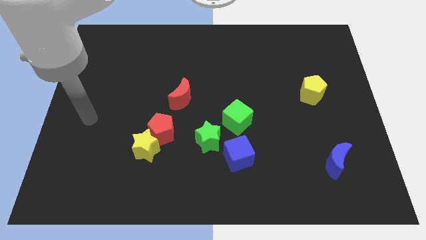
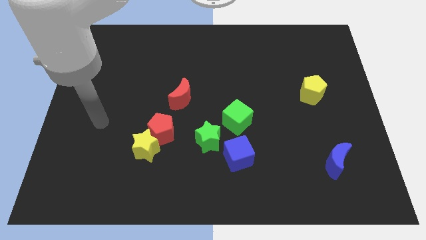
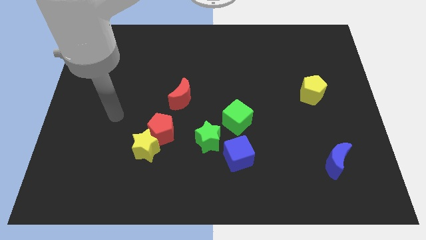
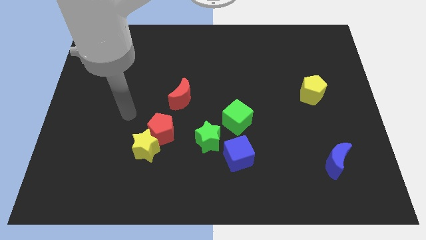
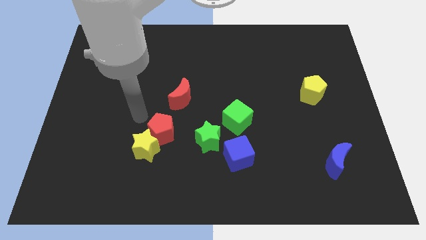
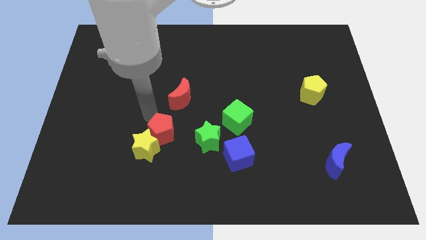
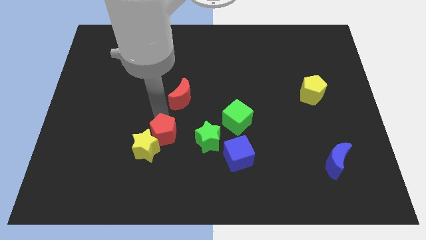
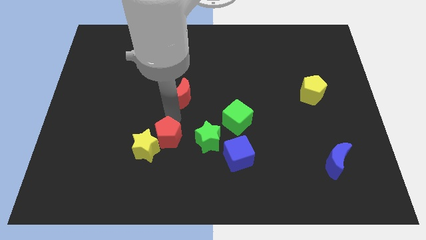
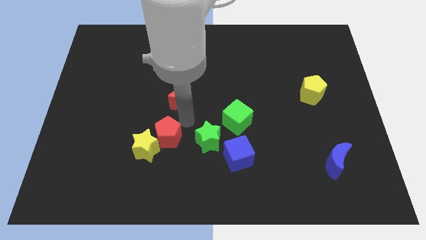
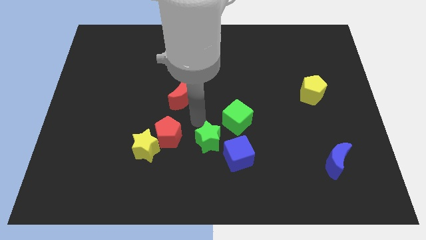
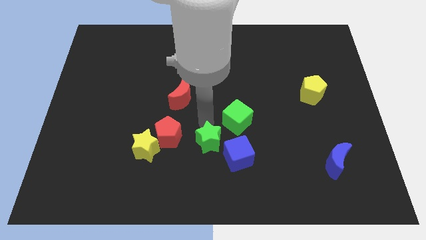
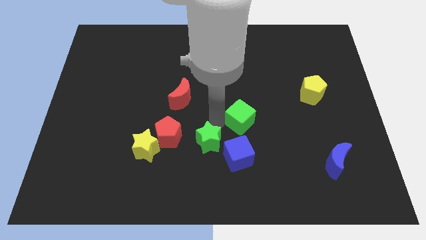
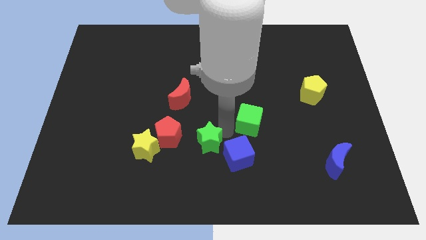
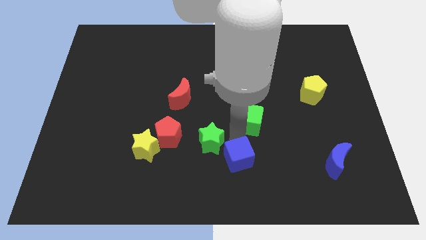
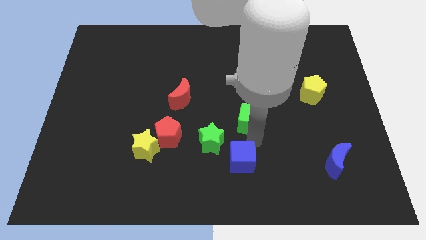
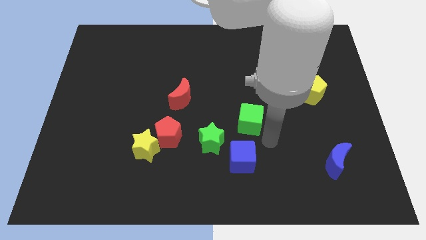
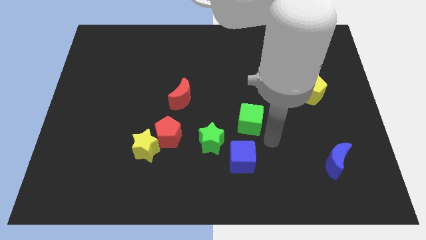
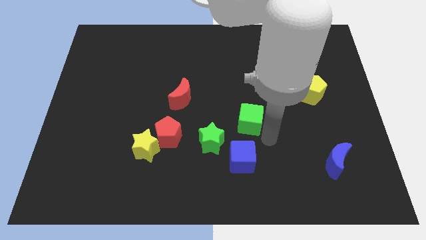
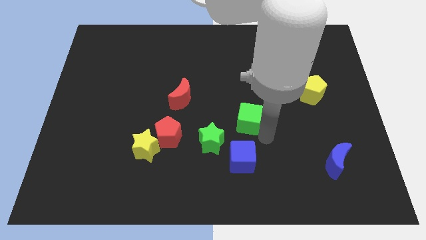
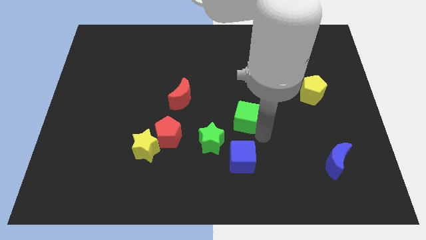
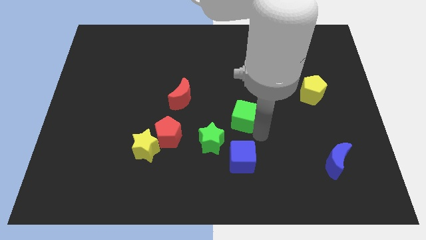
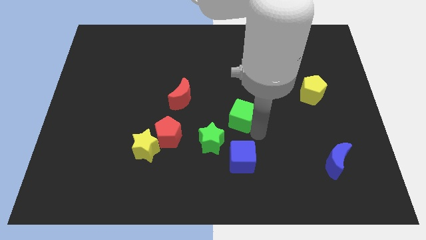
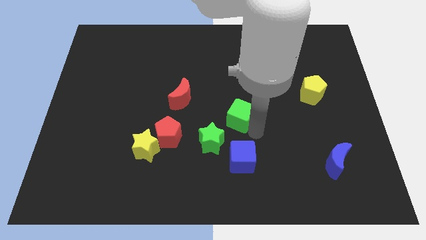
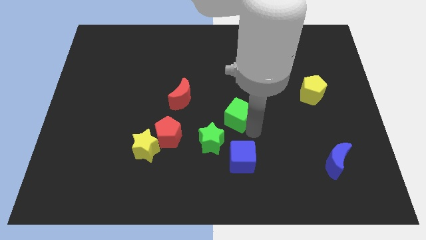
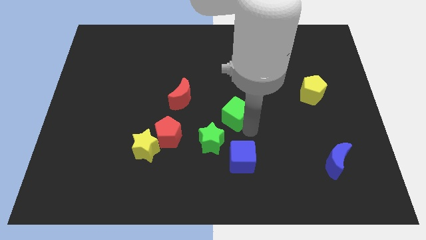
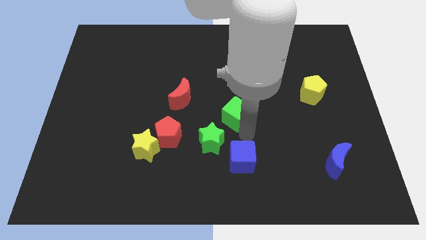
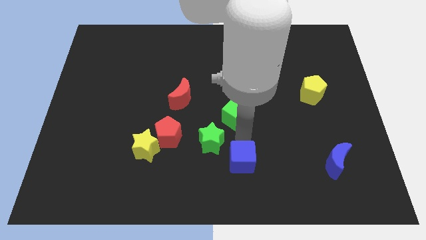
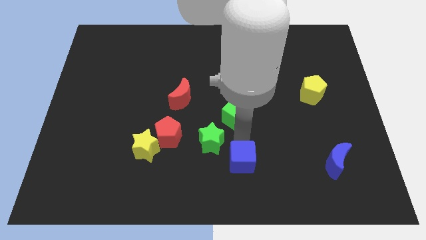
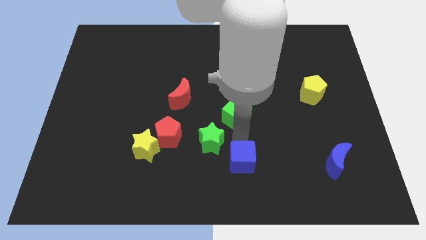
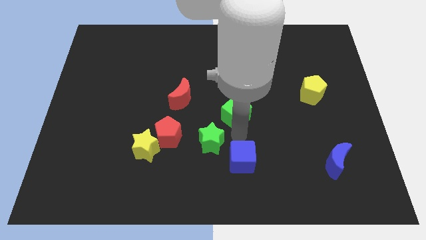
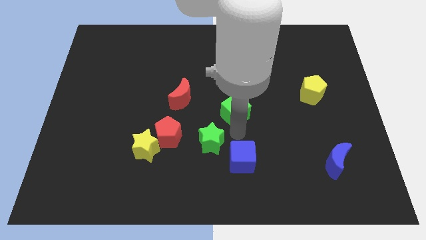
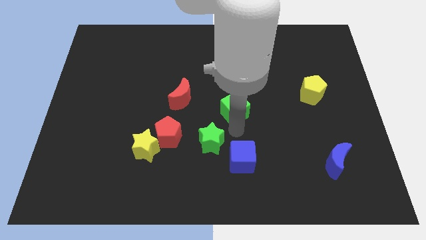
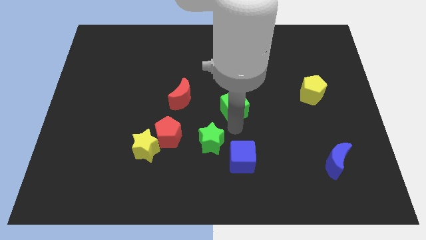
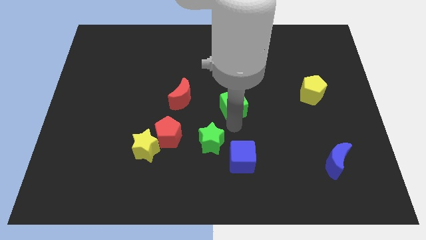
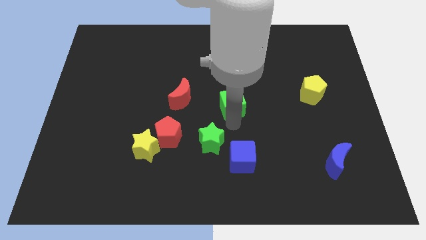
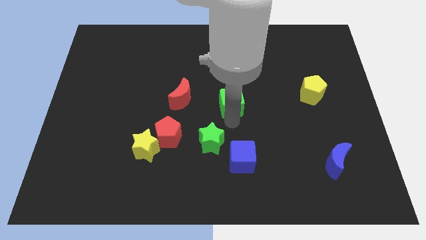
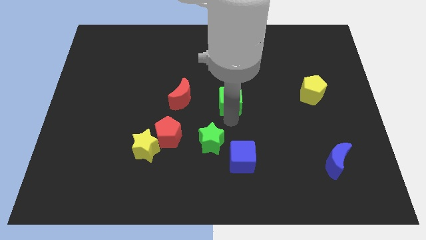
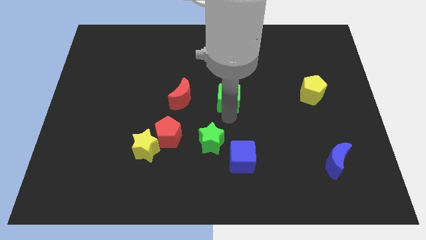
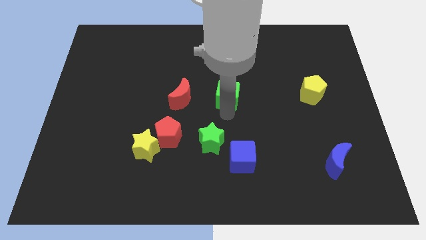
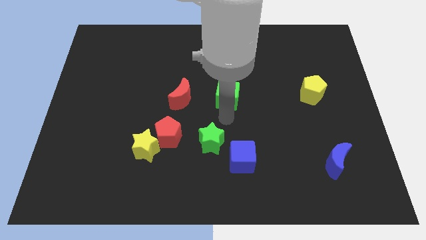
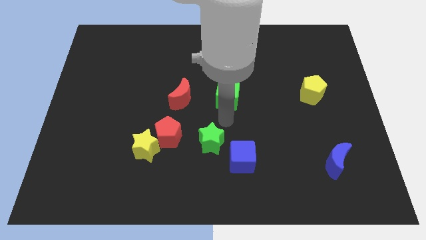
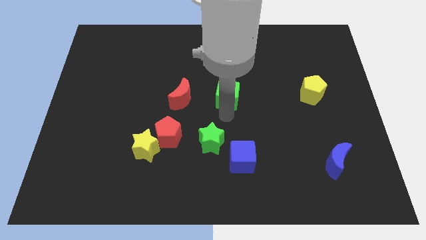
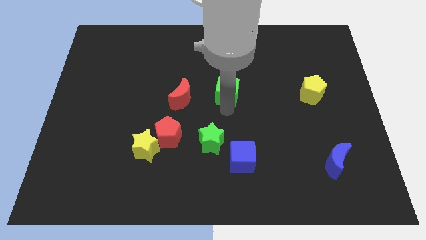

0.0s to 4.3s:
push the green cube a little bit upwards

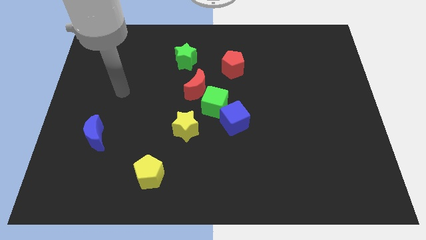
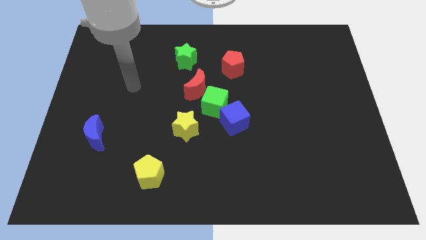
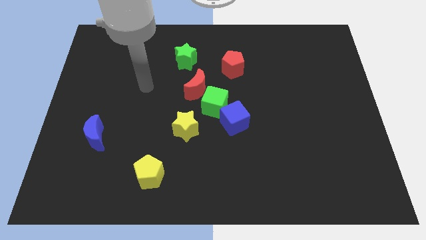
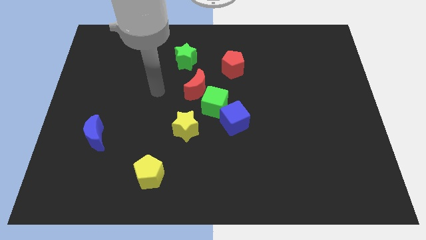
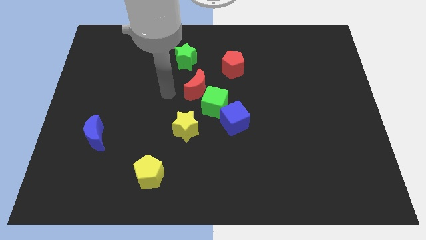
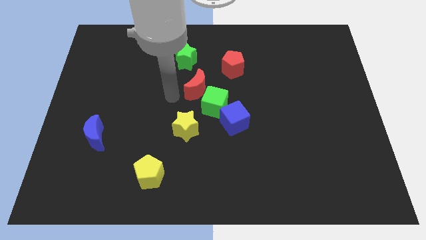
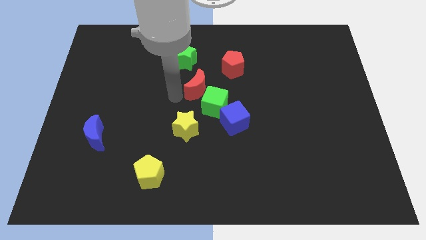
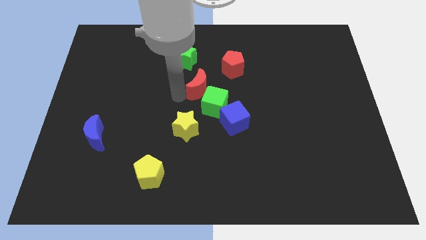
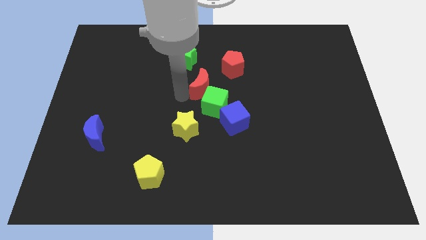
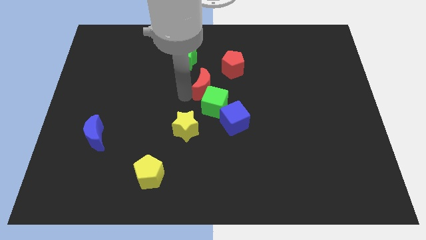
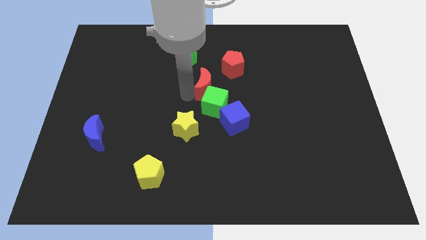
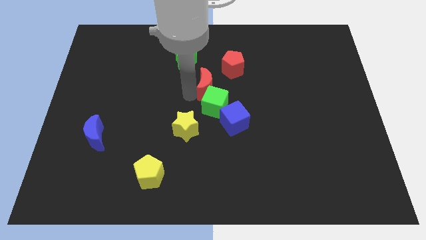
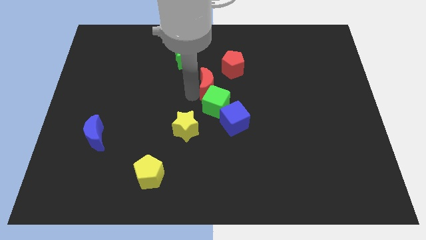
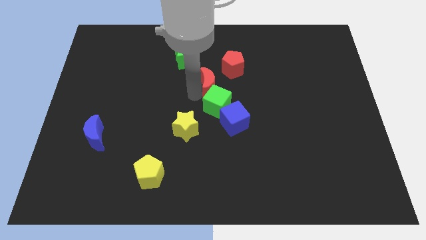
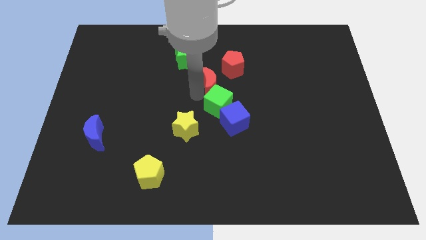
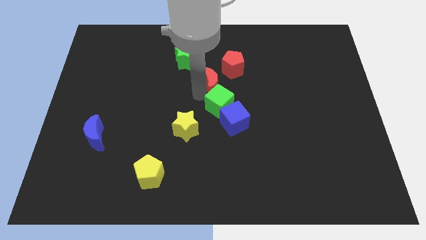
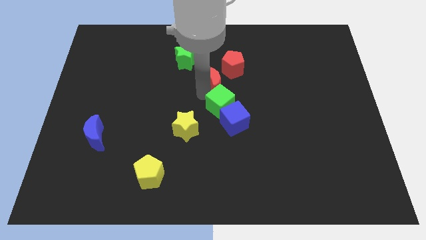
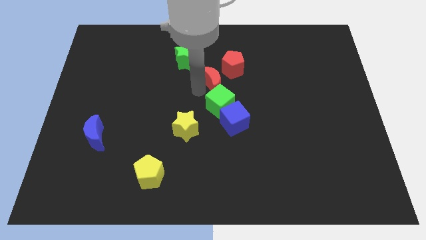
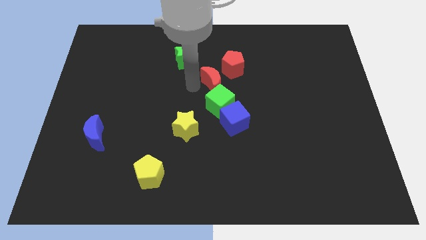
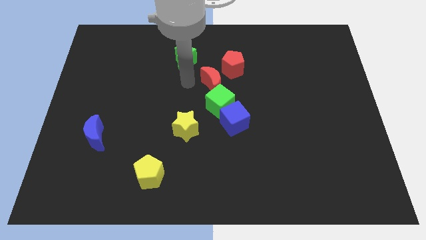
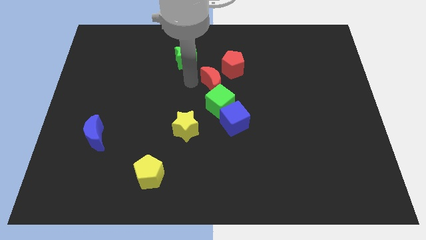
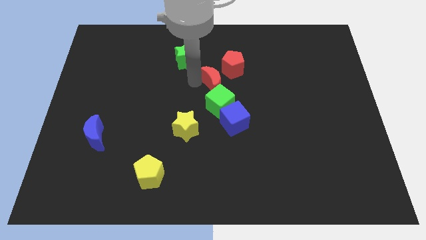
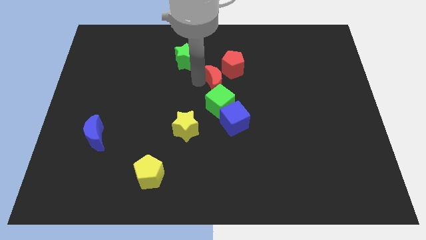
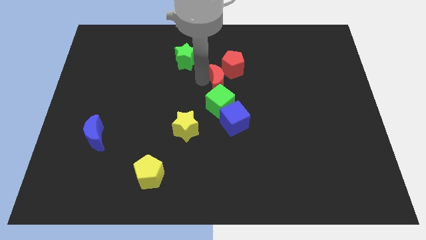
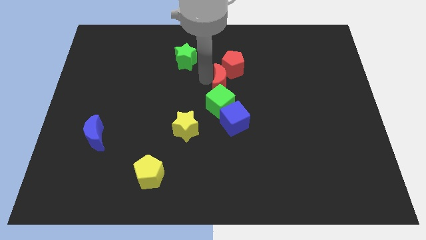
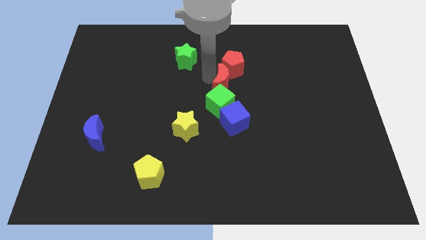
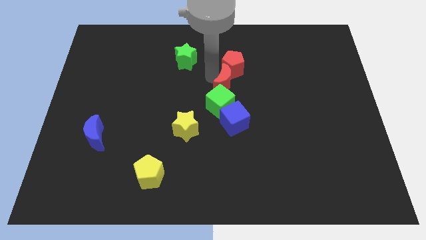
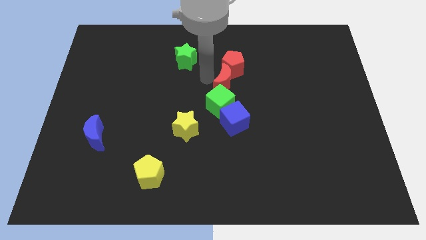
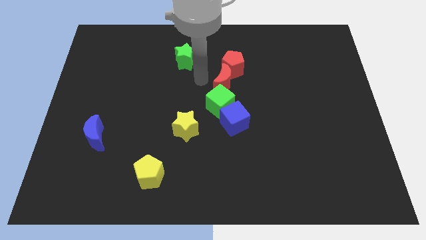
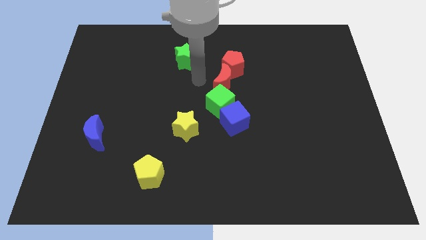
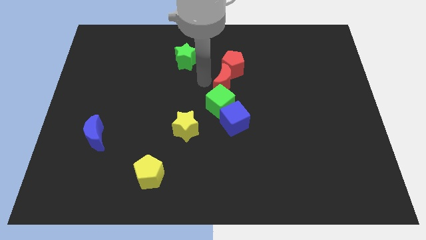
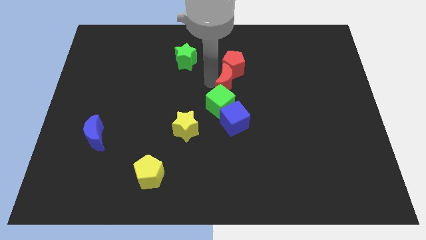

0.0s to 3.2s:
push the red moon to the right somewhat

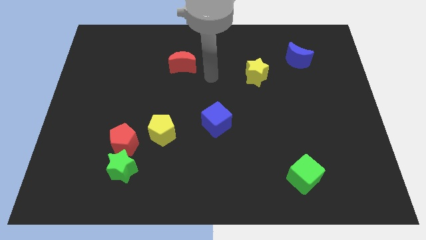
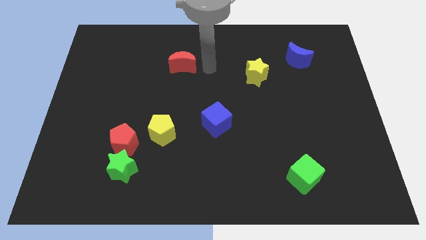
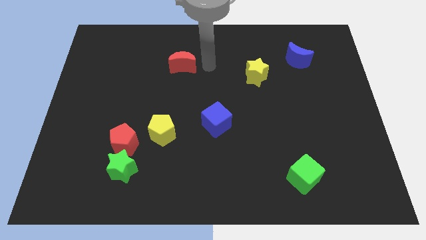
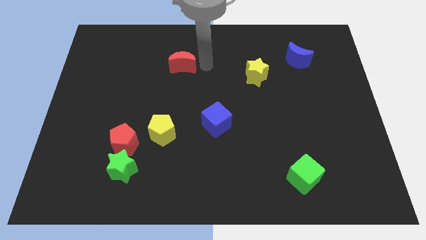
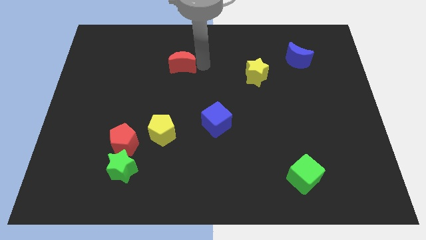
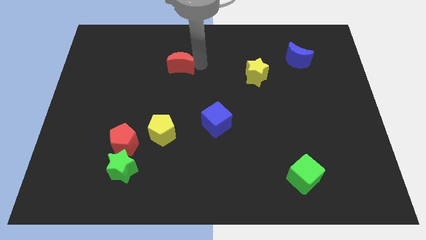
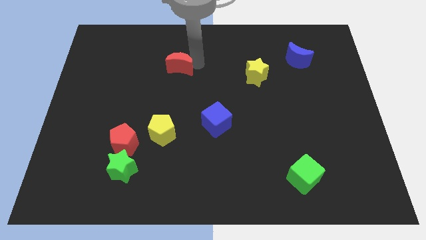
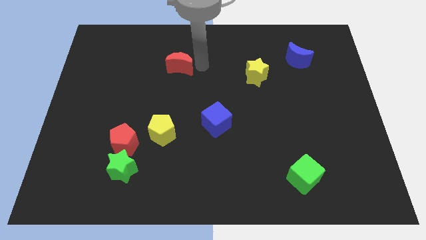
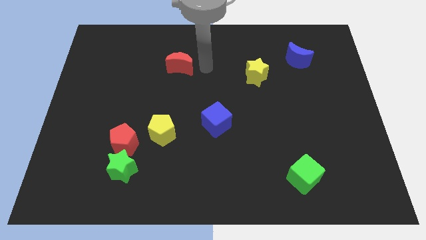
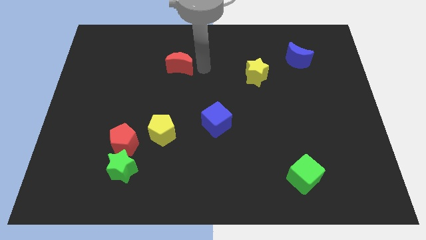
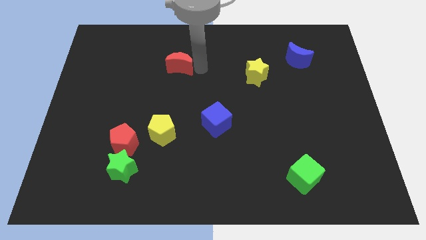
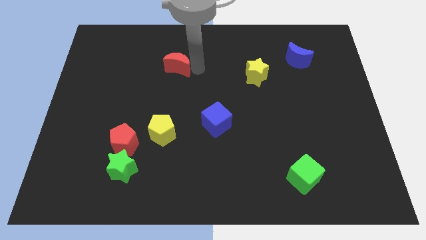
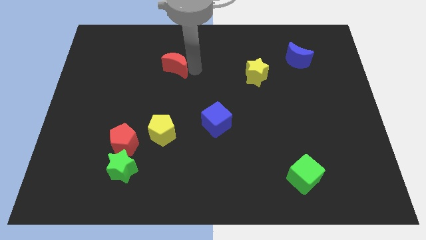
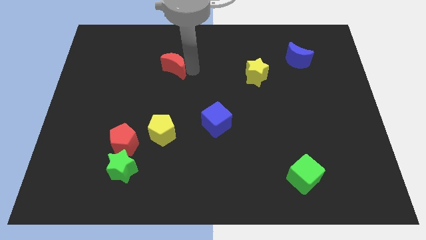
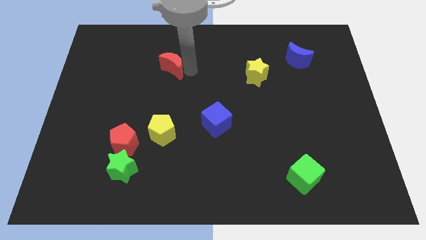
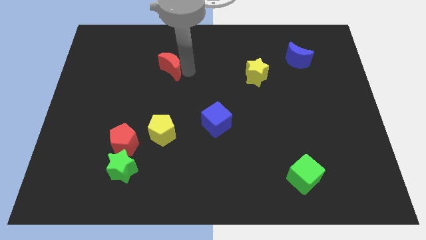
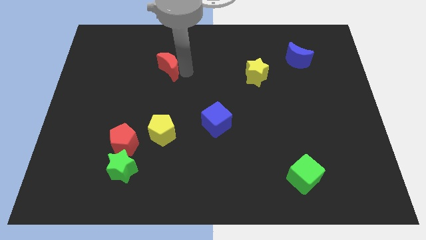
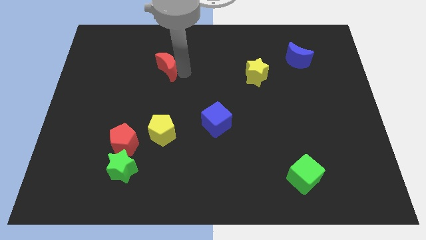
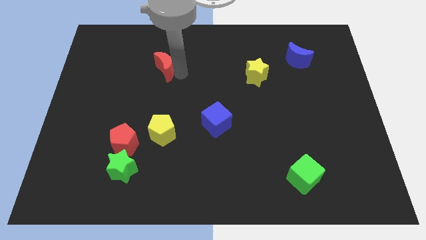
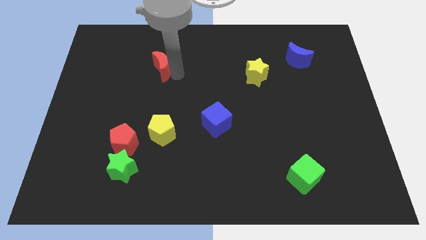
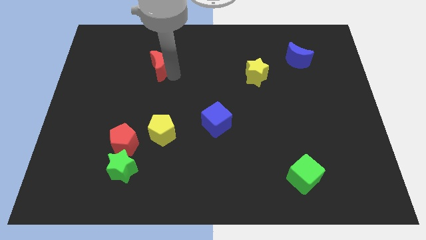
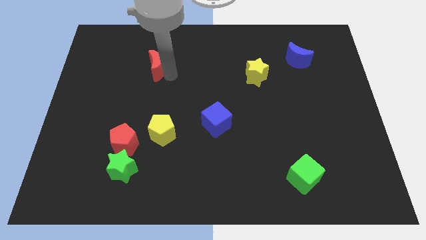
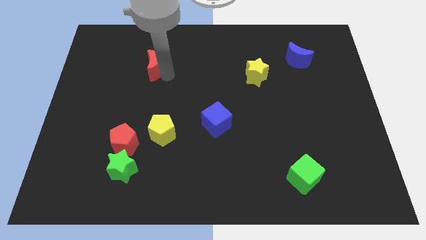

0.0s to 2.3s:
slightly move the red moon to the left
